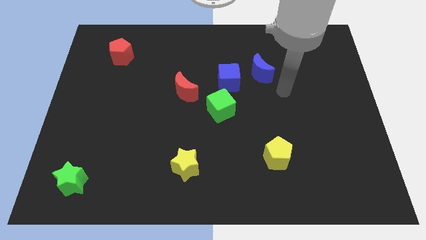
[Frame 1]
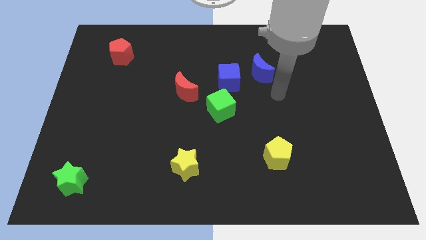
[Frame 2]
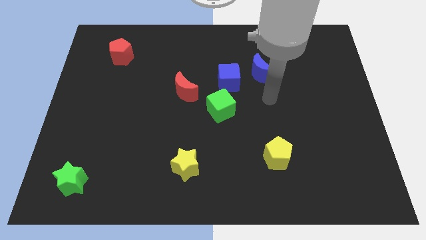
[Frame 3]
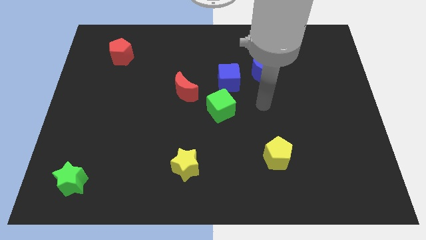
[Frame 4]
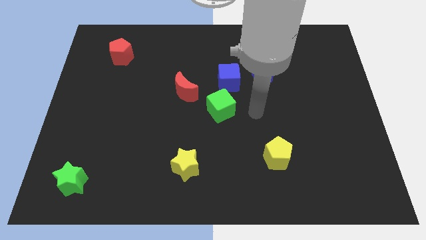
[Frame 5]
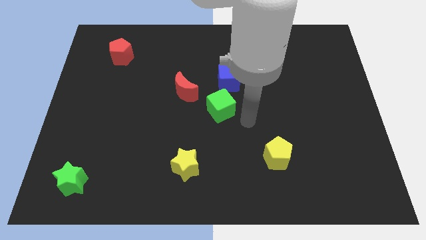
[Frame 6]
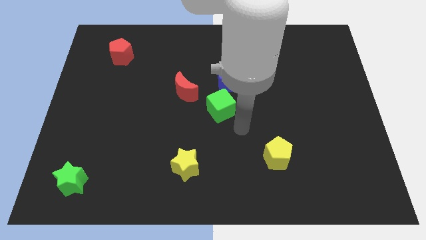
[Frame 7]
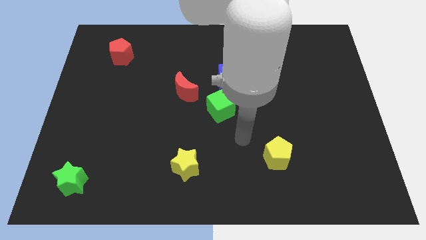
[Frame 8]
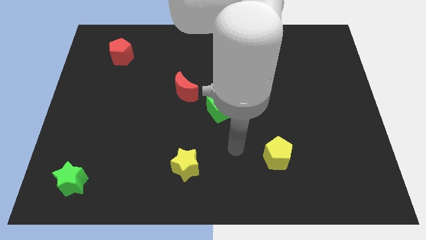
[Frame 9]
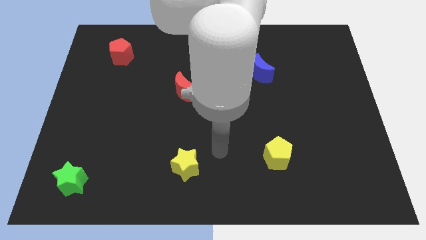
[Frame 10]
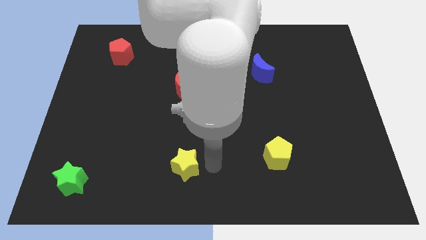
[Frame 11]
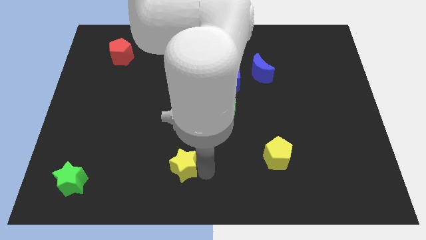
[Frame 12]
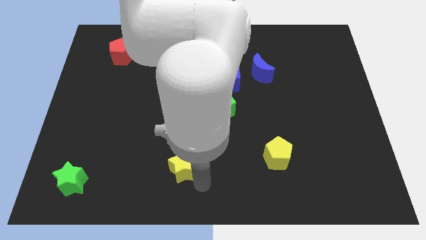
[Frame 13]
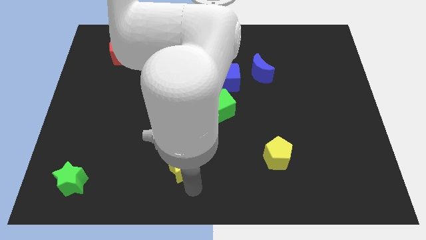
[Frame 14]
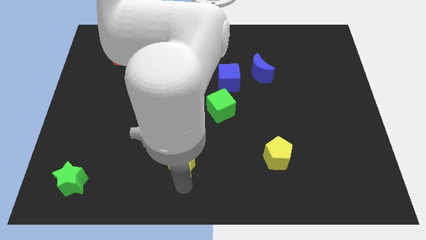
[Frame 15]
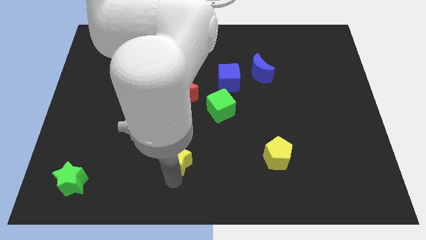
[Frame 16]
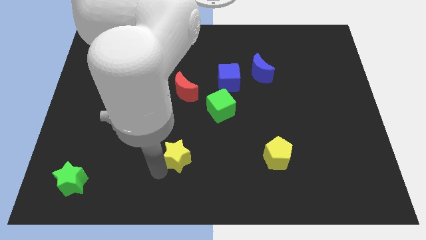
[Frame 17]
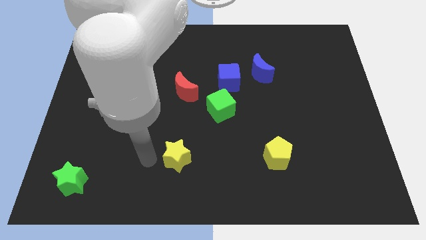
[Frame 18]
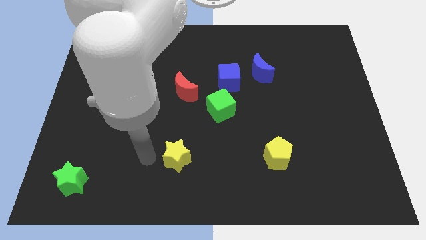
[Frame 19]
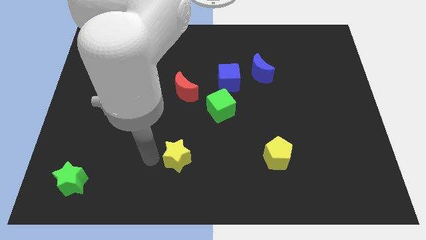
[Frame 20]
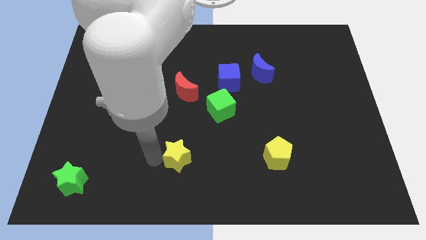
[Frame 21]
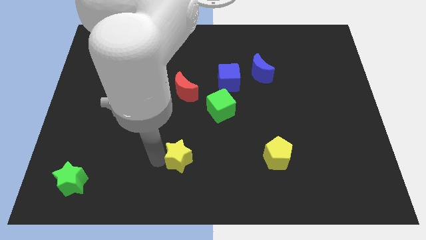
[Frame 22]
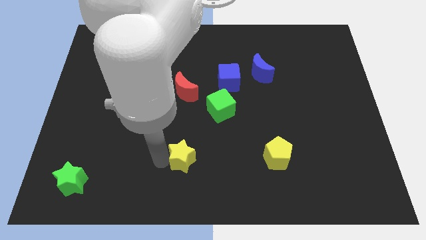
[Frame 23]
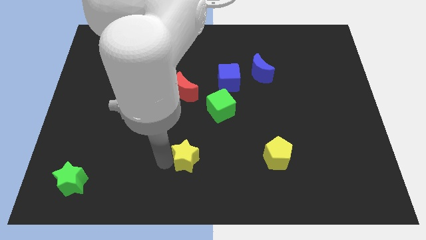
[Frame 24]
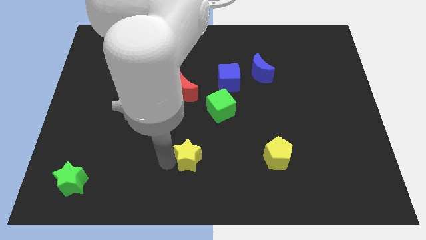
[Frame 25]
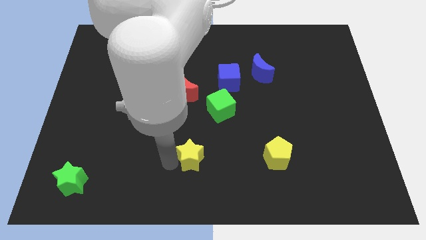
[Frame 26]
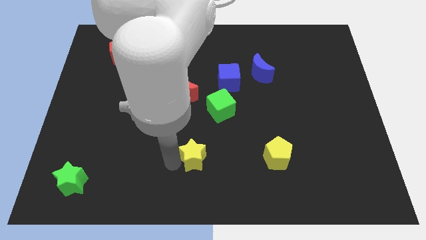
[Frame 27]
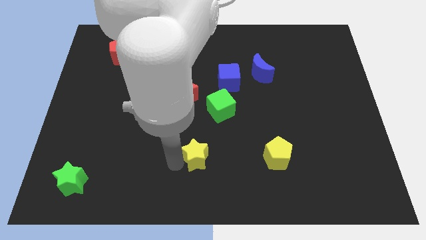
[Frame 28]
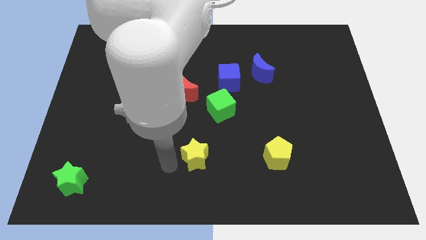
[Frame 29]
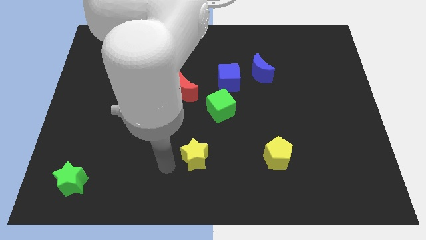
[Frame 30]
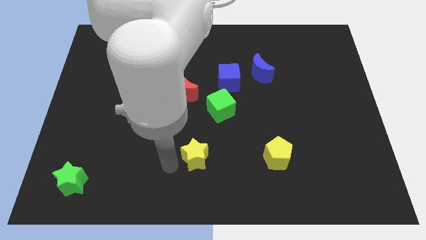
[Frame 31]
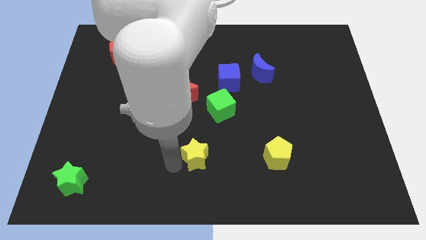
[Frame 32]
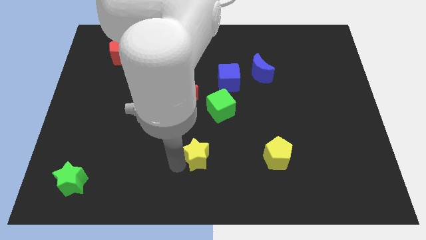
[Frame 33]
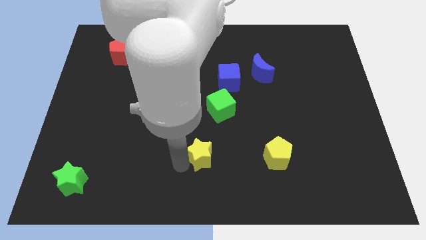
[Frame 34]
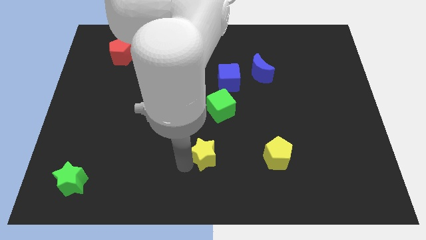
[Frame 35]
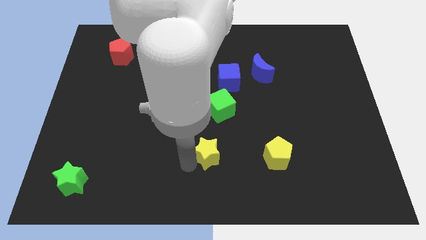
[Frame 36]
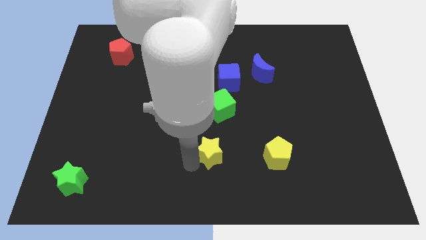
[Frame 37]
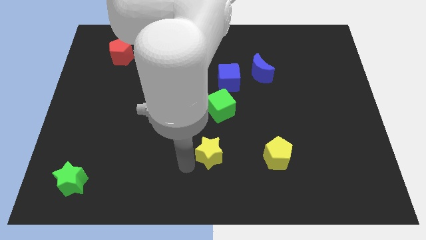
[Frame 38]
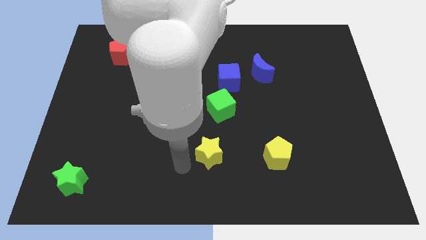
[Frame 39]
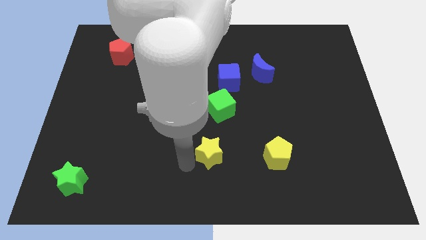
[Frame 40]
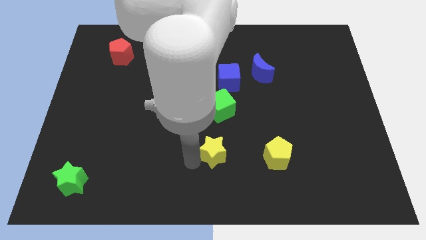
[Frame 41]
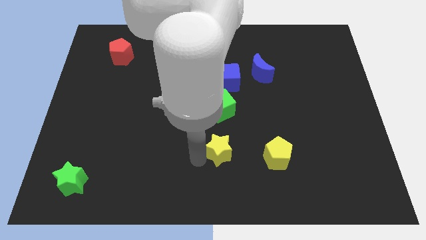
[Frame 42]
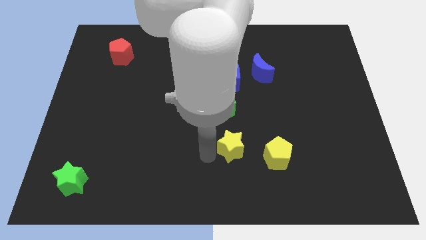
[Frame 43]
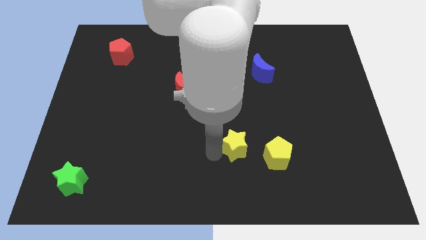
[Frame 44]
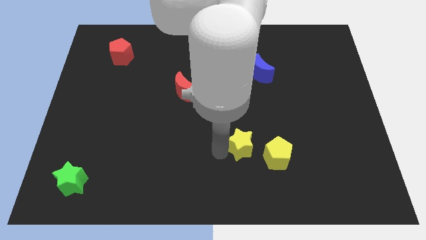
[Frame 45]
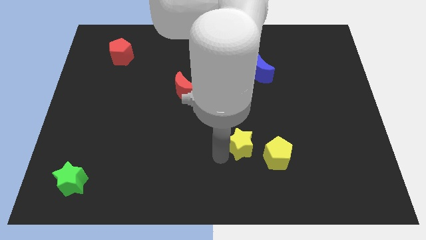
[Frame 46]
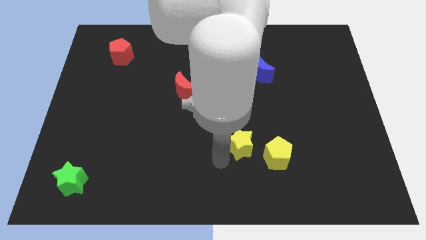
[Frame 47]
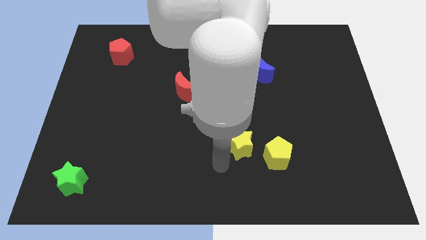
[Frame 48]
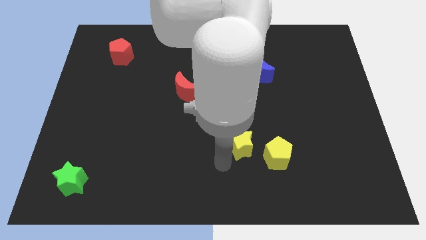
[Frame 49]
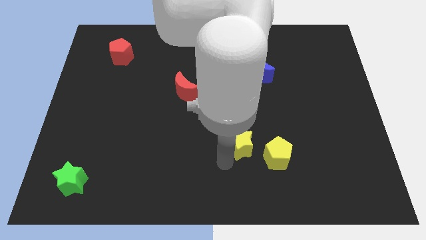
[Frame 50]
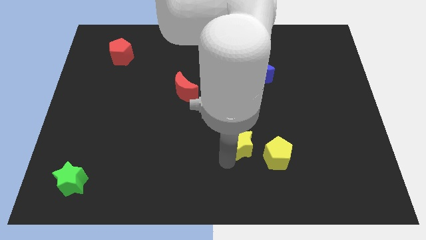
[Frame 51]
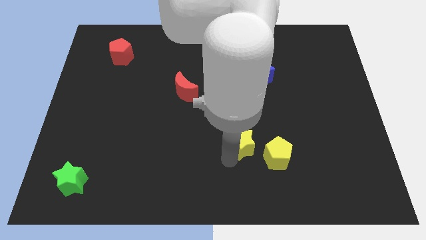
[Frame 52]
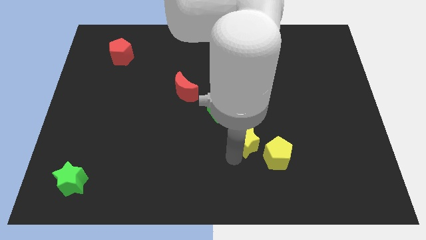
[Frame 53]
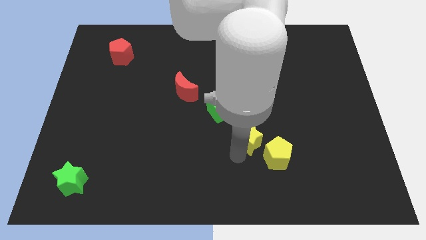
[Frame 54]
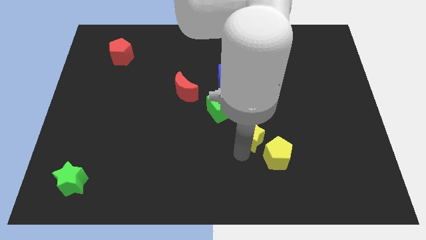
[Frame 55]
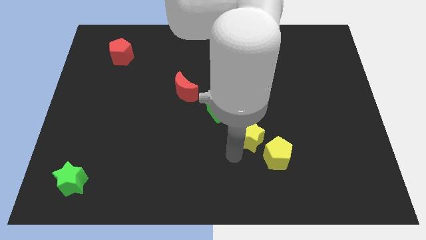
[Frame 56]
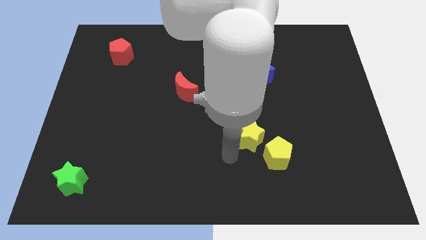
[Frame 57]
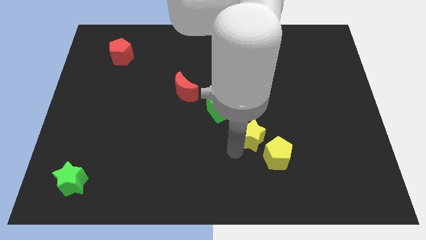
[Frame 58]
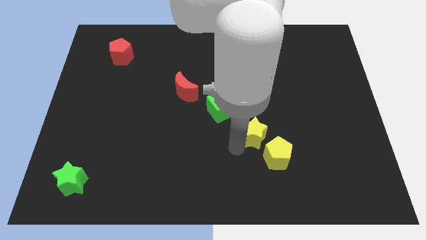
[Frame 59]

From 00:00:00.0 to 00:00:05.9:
move the yellow star to the top of the yellow pentagon

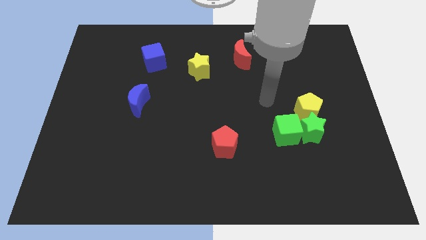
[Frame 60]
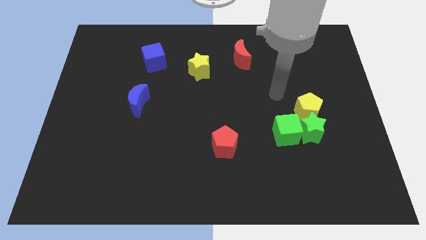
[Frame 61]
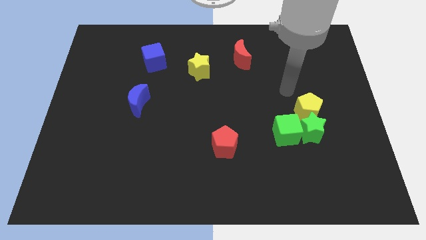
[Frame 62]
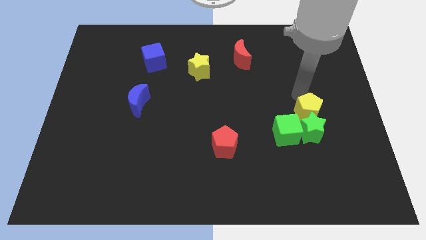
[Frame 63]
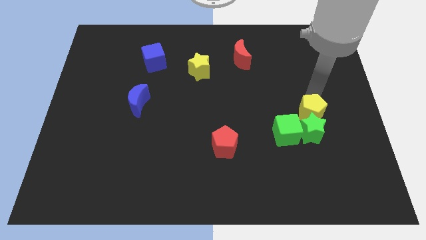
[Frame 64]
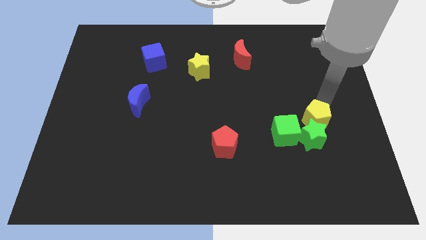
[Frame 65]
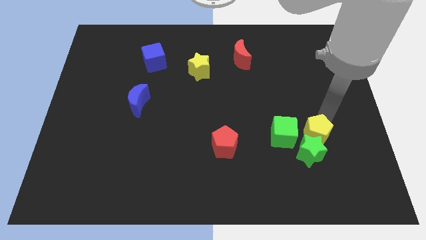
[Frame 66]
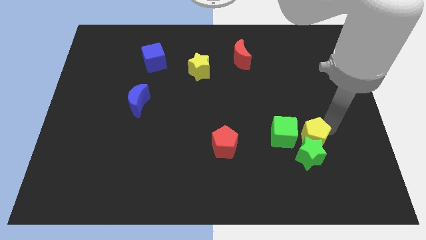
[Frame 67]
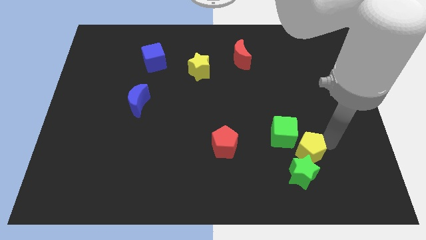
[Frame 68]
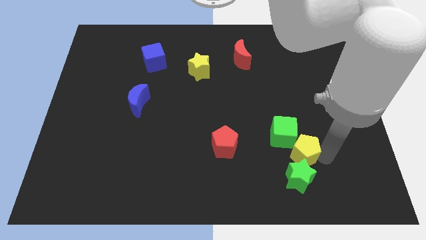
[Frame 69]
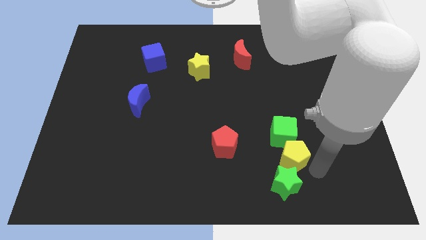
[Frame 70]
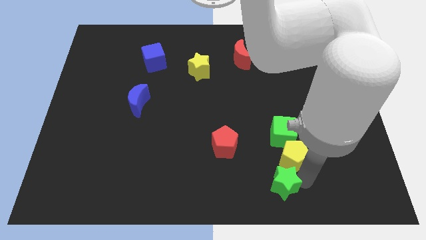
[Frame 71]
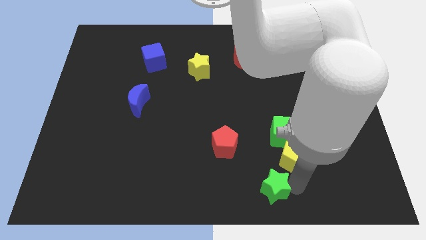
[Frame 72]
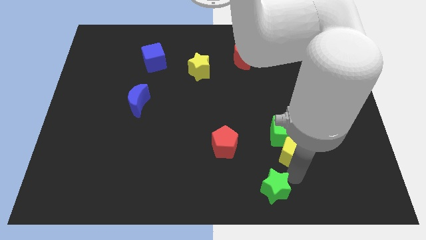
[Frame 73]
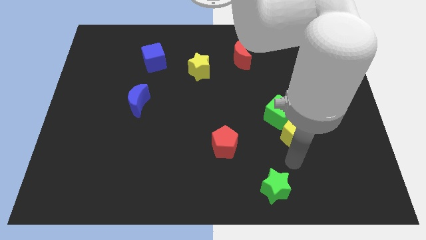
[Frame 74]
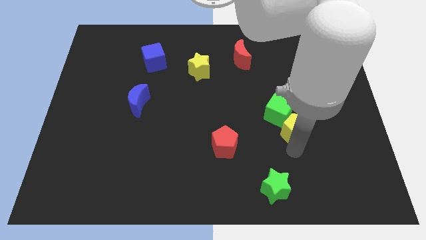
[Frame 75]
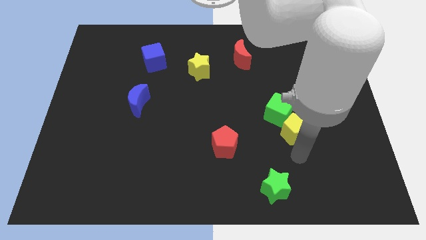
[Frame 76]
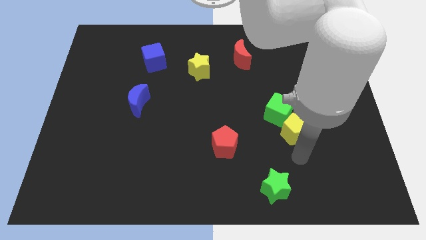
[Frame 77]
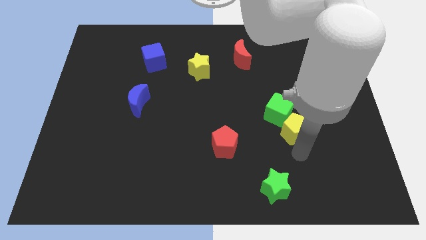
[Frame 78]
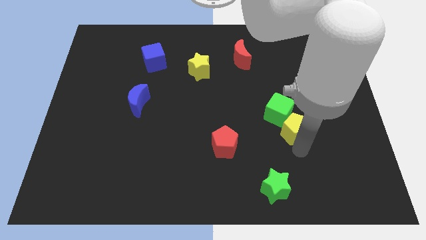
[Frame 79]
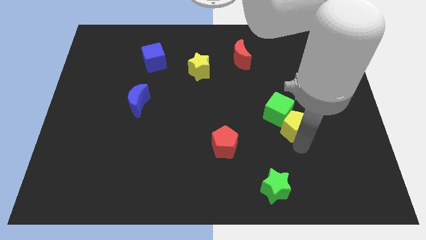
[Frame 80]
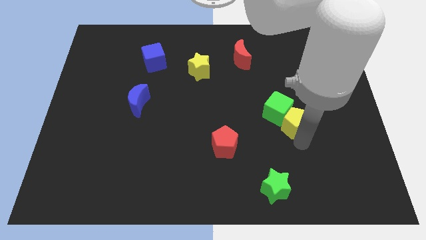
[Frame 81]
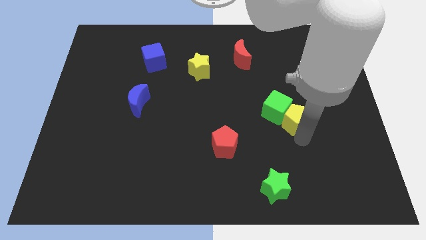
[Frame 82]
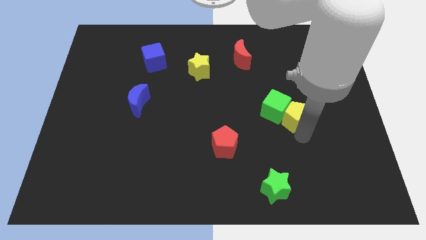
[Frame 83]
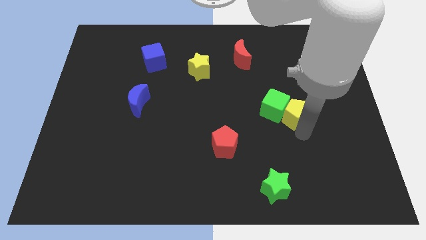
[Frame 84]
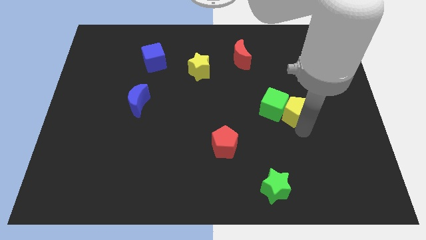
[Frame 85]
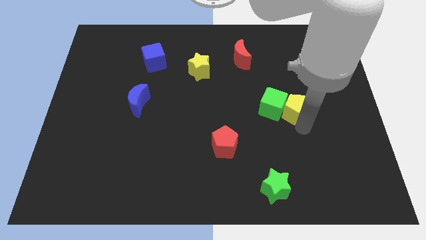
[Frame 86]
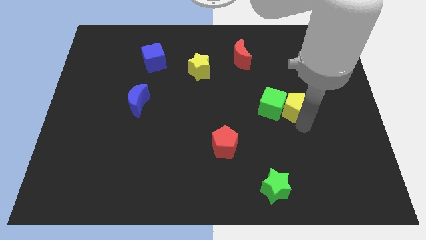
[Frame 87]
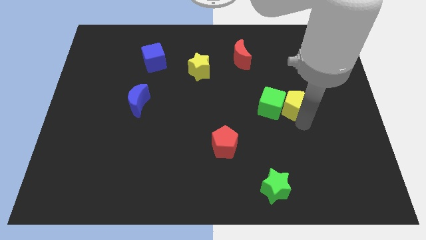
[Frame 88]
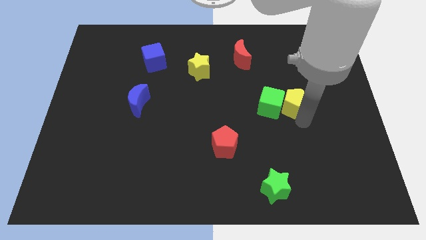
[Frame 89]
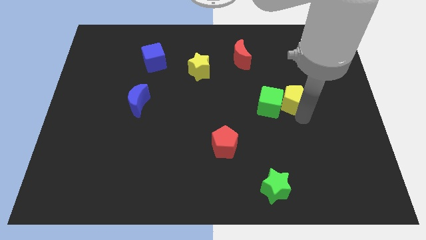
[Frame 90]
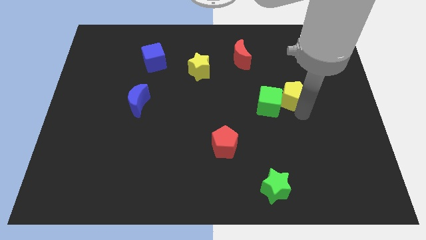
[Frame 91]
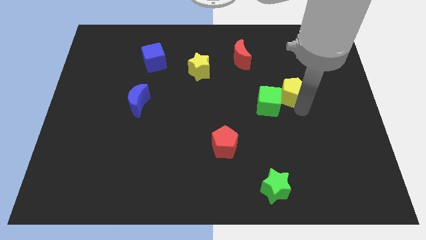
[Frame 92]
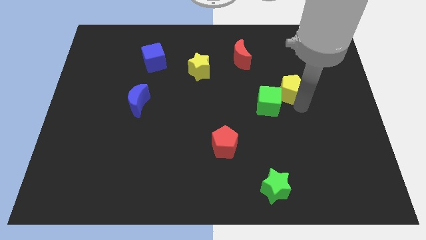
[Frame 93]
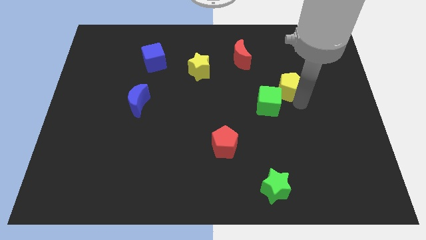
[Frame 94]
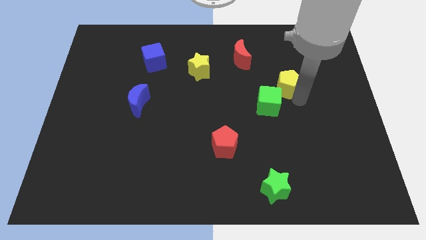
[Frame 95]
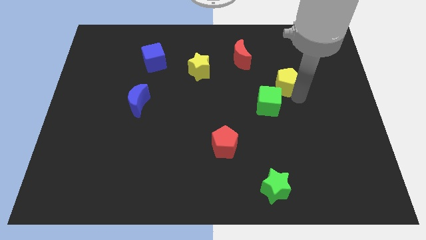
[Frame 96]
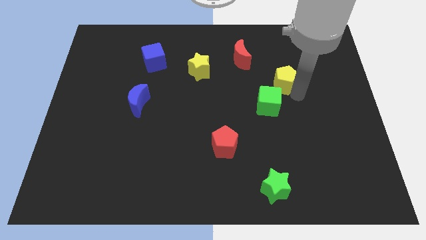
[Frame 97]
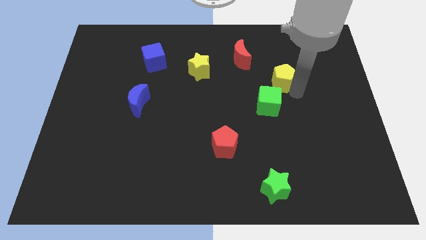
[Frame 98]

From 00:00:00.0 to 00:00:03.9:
move the yellow pentagon to the bottom right of the red moon
